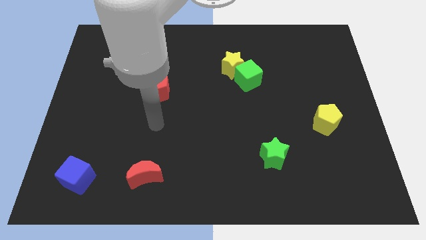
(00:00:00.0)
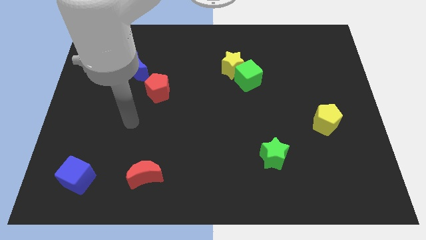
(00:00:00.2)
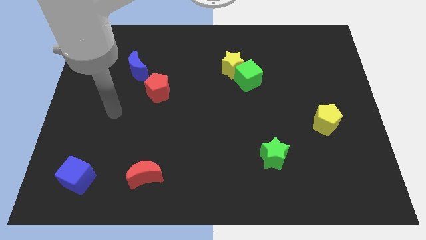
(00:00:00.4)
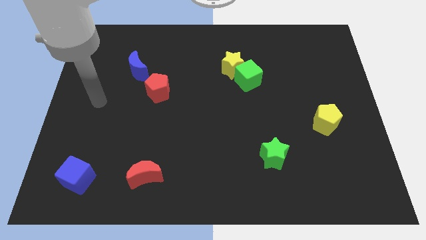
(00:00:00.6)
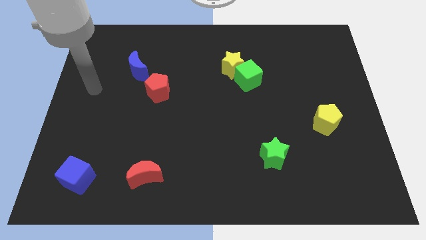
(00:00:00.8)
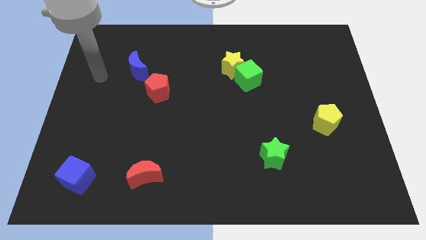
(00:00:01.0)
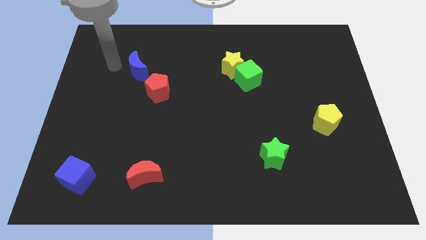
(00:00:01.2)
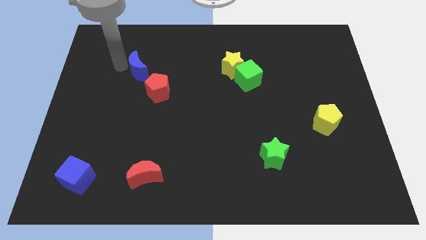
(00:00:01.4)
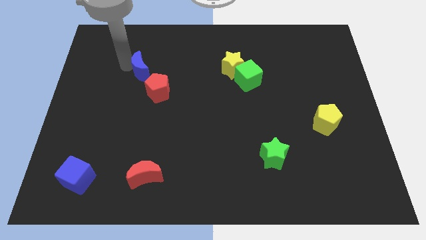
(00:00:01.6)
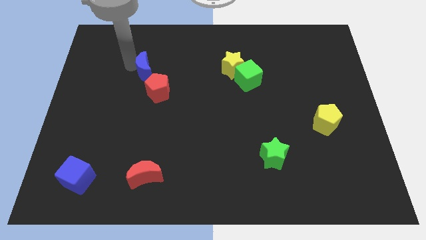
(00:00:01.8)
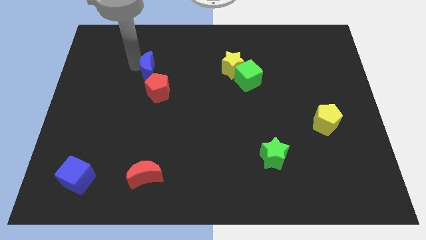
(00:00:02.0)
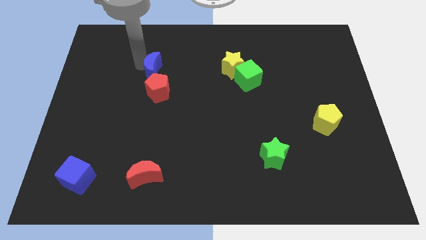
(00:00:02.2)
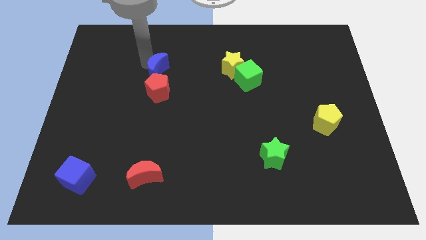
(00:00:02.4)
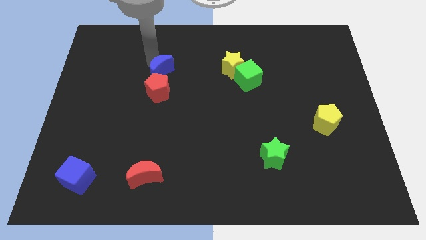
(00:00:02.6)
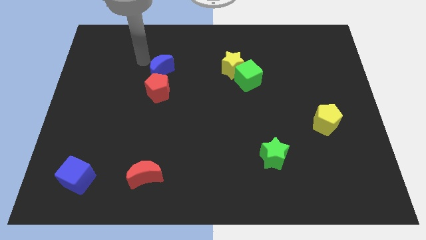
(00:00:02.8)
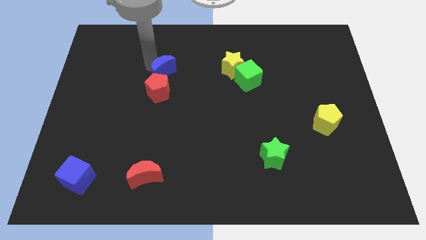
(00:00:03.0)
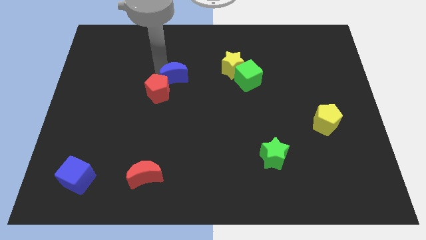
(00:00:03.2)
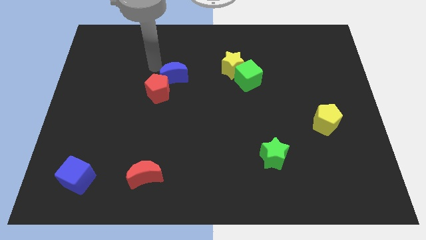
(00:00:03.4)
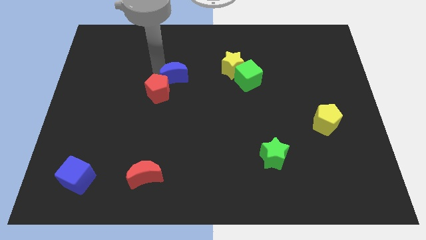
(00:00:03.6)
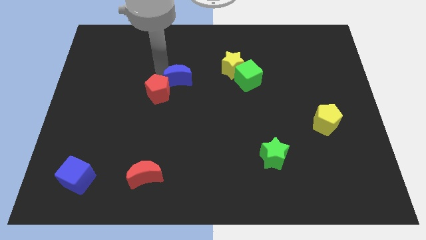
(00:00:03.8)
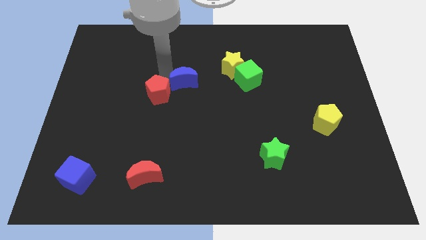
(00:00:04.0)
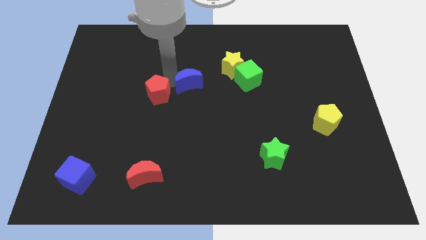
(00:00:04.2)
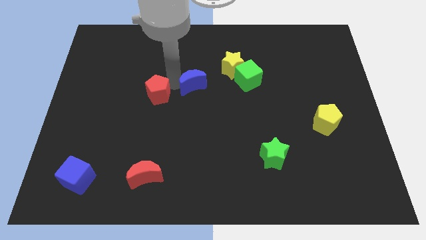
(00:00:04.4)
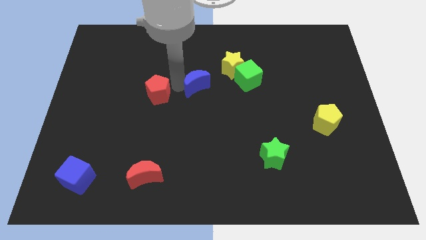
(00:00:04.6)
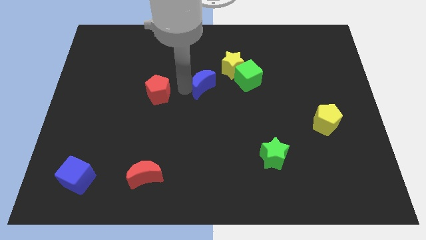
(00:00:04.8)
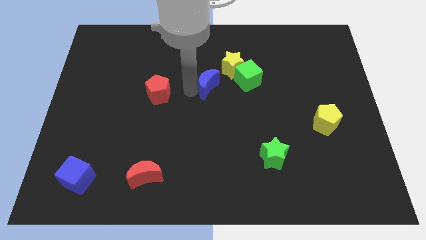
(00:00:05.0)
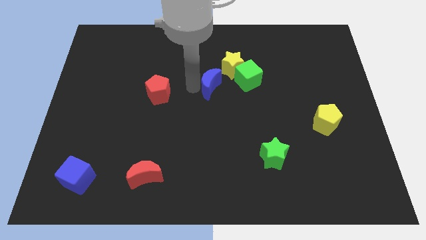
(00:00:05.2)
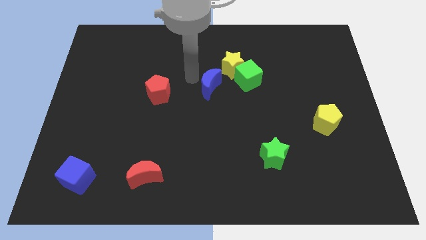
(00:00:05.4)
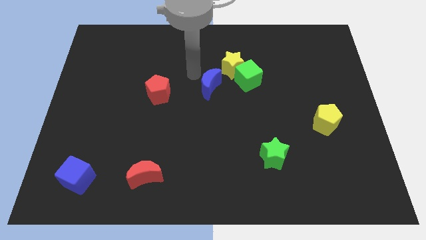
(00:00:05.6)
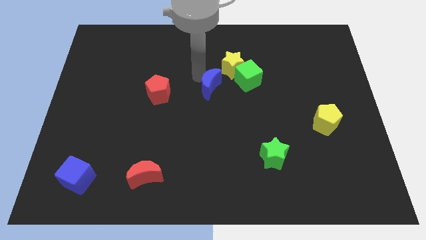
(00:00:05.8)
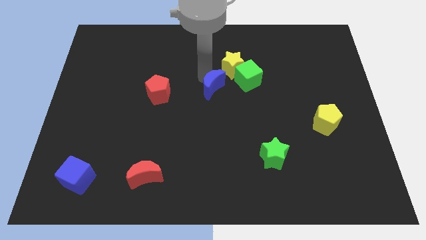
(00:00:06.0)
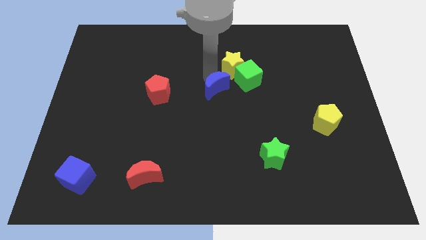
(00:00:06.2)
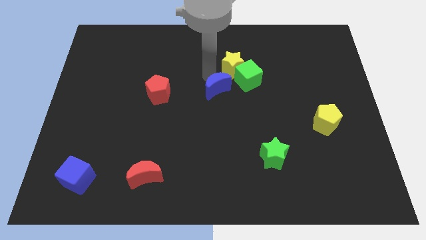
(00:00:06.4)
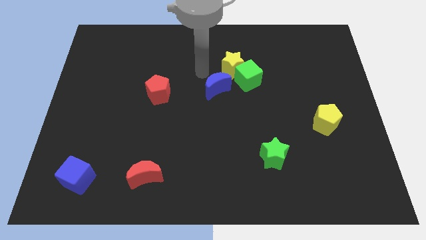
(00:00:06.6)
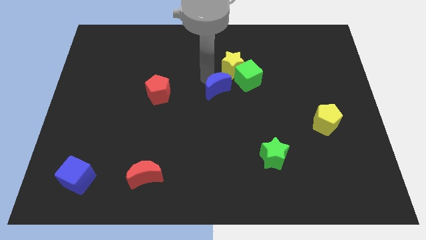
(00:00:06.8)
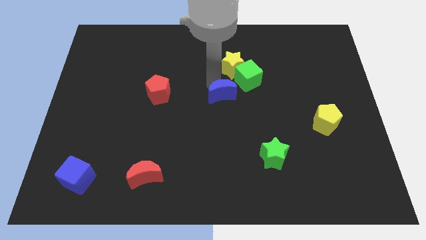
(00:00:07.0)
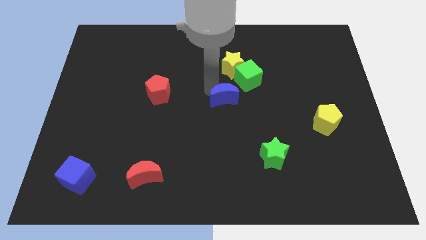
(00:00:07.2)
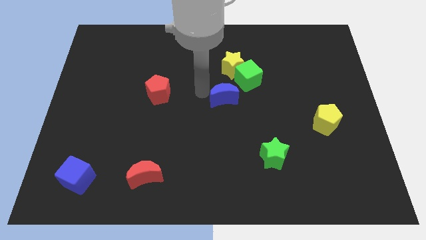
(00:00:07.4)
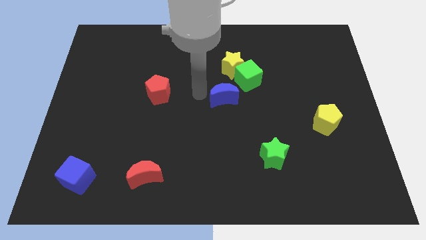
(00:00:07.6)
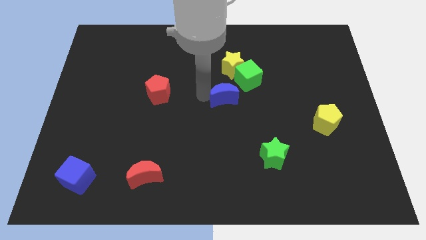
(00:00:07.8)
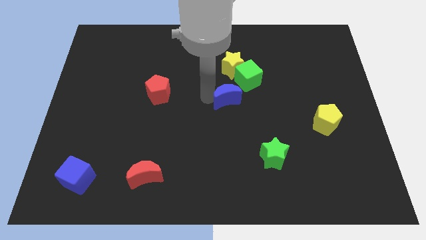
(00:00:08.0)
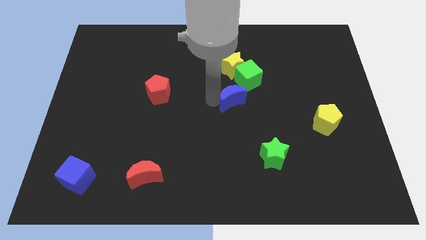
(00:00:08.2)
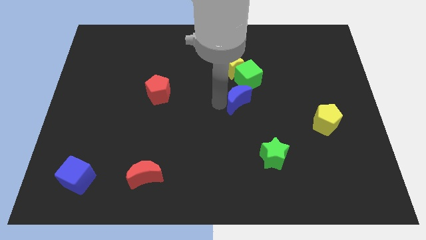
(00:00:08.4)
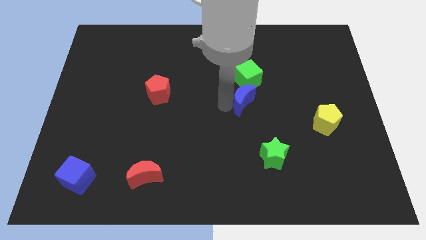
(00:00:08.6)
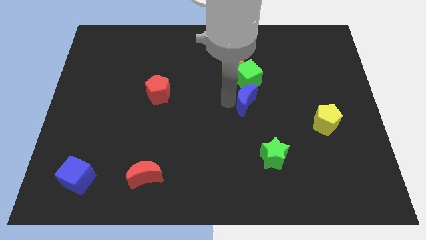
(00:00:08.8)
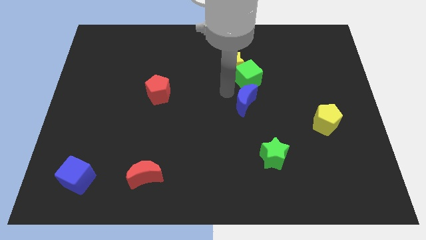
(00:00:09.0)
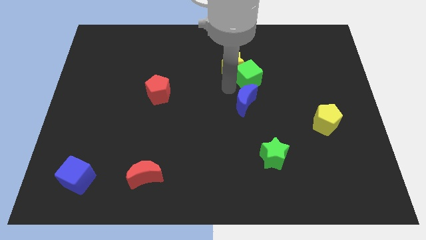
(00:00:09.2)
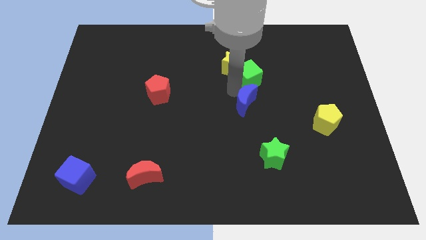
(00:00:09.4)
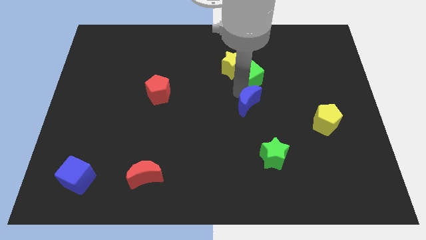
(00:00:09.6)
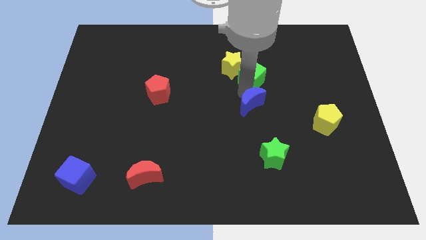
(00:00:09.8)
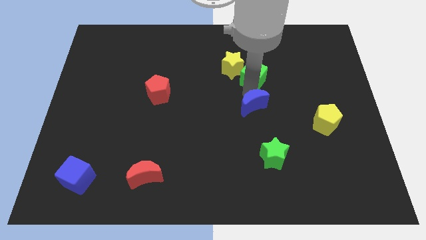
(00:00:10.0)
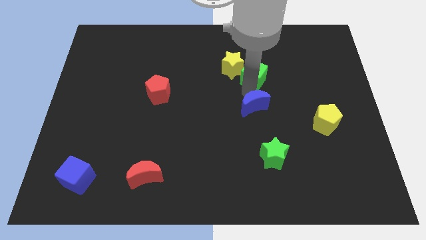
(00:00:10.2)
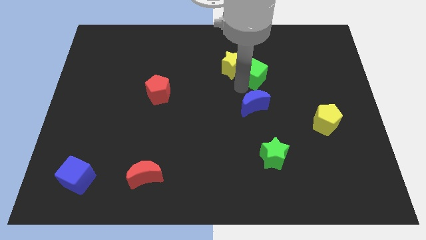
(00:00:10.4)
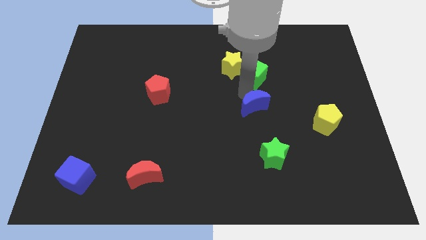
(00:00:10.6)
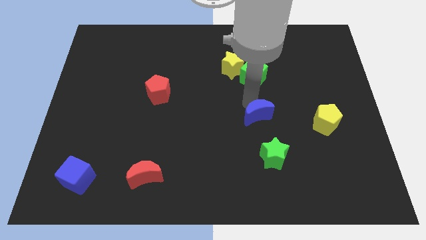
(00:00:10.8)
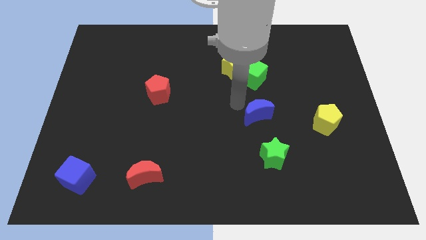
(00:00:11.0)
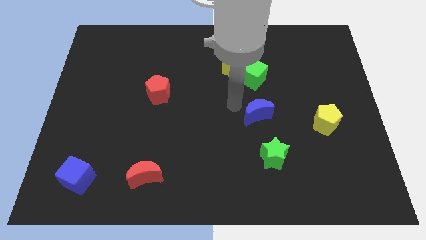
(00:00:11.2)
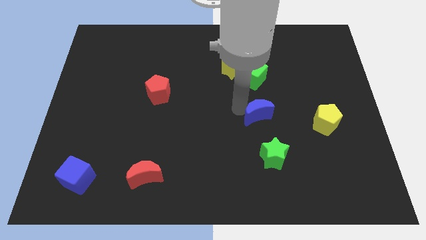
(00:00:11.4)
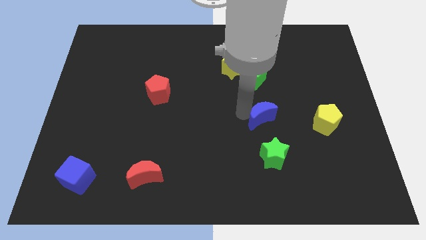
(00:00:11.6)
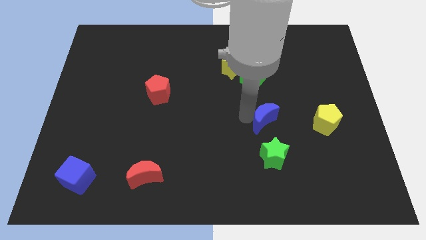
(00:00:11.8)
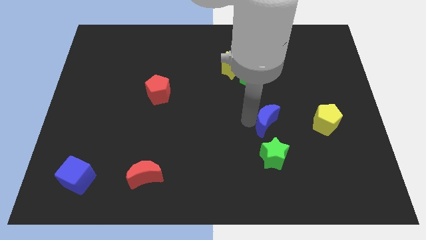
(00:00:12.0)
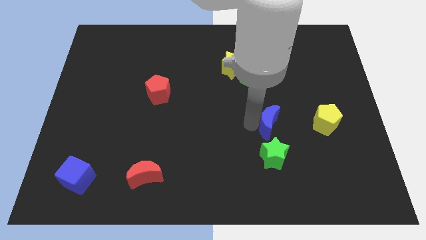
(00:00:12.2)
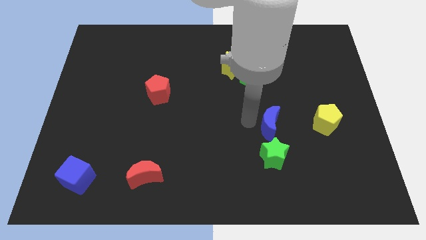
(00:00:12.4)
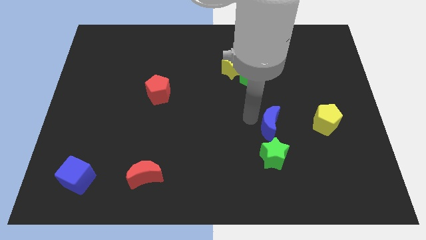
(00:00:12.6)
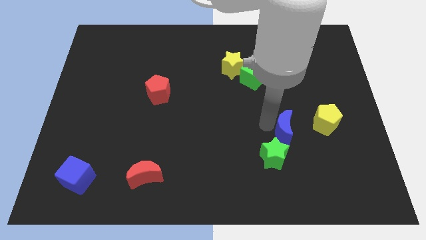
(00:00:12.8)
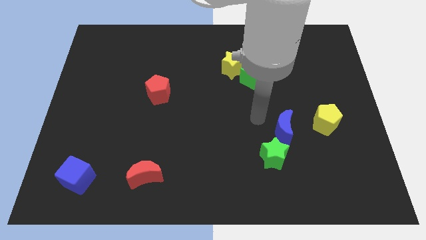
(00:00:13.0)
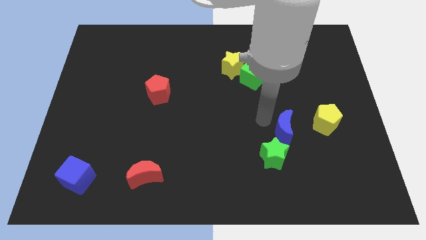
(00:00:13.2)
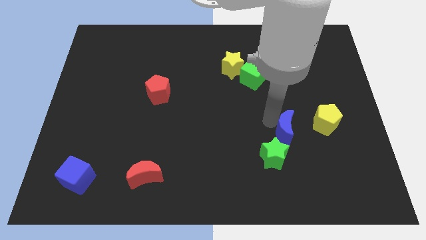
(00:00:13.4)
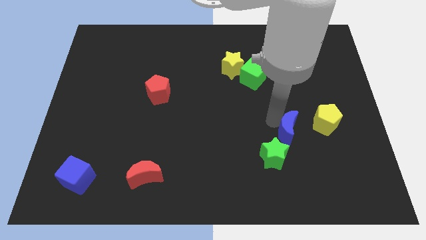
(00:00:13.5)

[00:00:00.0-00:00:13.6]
slide the blue moon diagonally down and to the left of the yellow pentagon

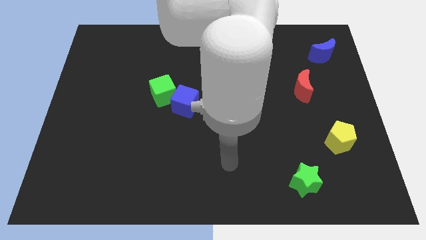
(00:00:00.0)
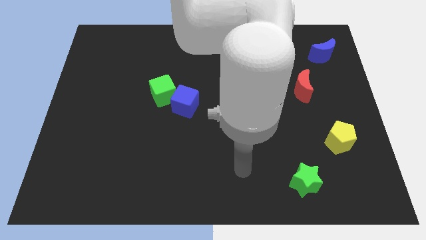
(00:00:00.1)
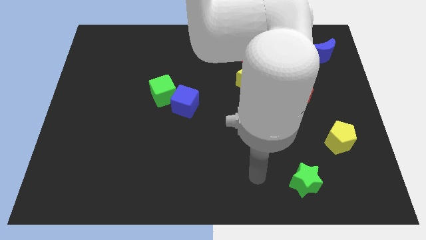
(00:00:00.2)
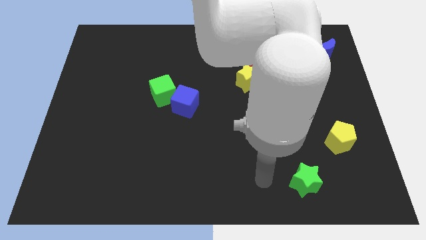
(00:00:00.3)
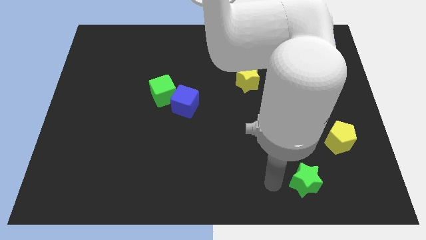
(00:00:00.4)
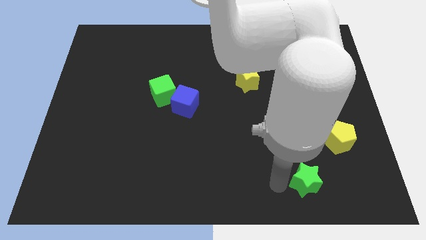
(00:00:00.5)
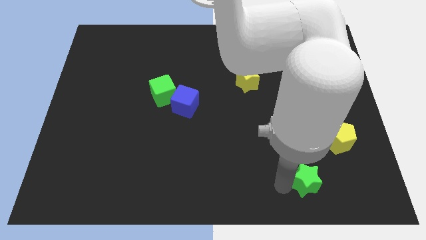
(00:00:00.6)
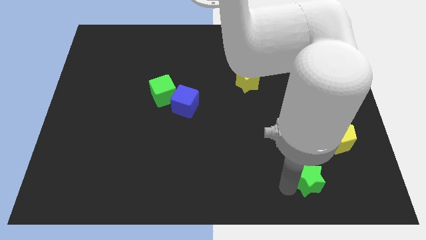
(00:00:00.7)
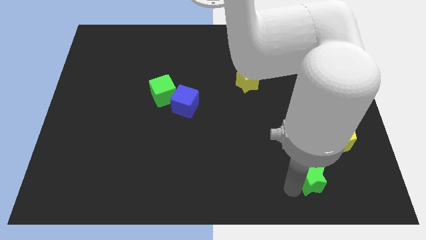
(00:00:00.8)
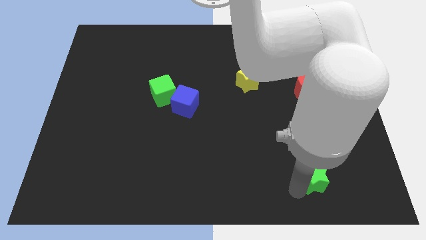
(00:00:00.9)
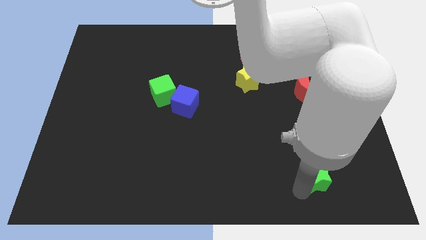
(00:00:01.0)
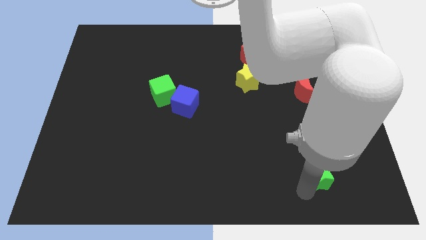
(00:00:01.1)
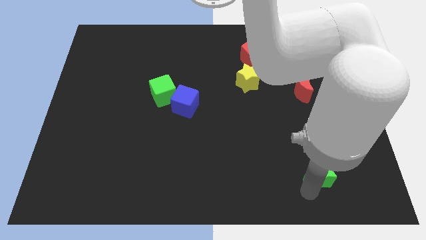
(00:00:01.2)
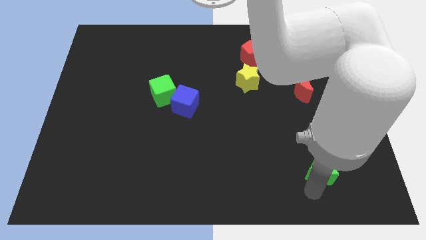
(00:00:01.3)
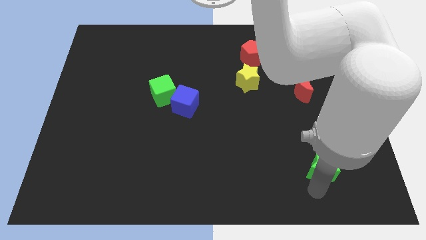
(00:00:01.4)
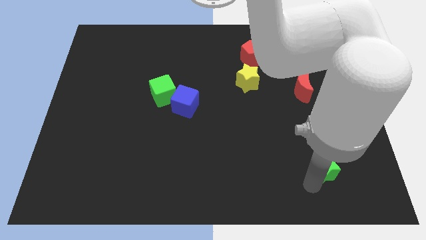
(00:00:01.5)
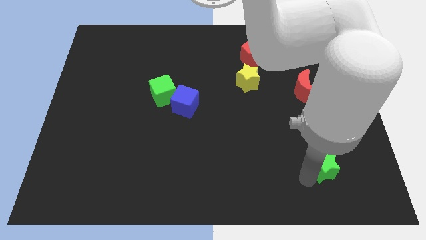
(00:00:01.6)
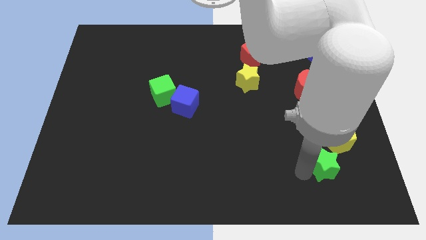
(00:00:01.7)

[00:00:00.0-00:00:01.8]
put the green star to the bottom side of the yellow pentagon
